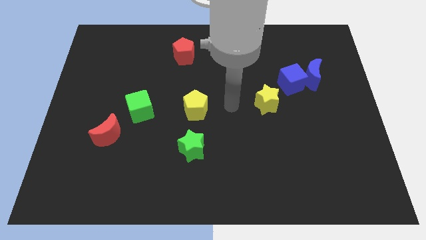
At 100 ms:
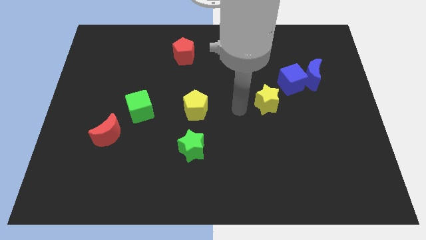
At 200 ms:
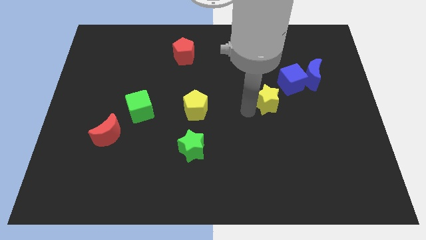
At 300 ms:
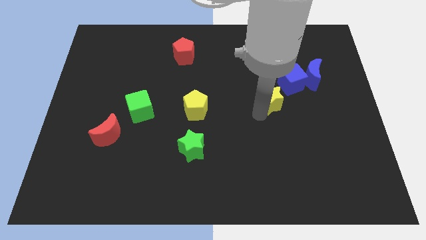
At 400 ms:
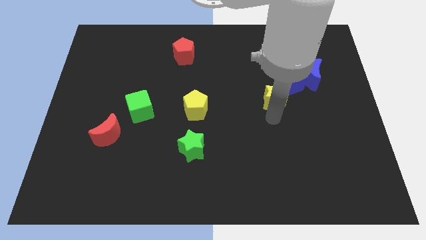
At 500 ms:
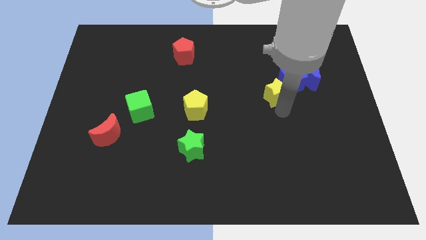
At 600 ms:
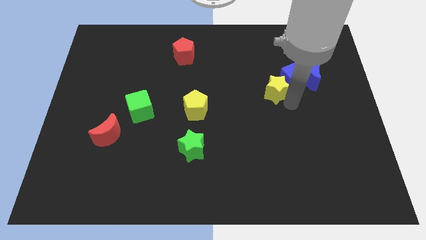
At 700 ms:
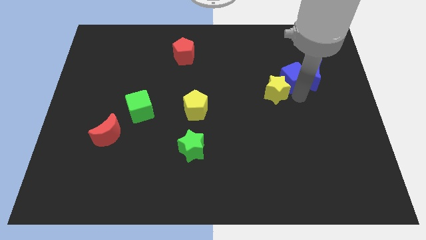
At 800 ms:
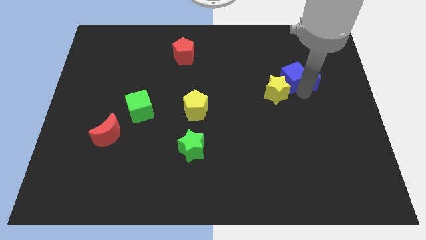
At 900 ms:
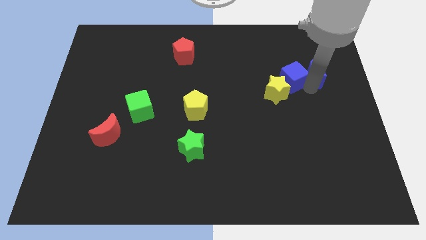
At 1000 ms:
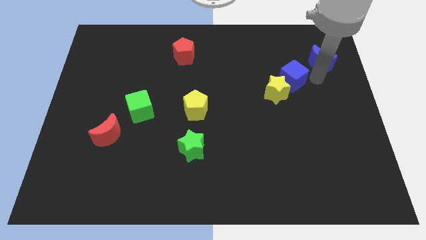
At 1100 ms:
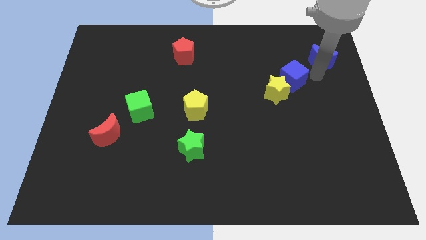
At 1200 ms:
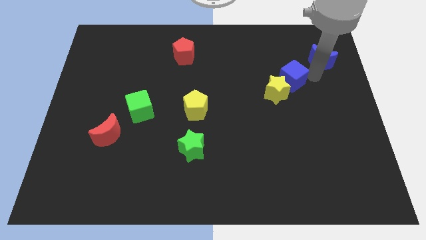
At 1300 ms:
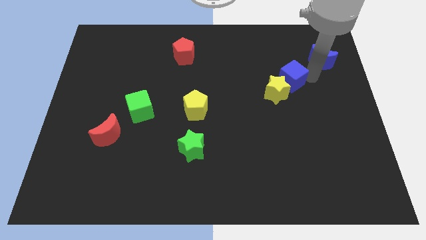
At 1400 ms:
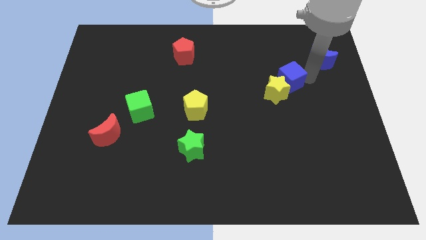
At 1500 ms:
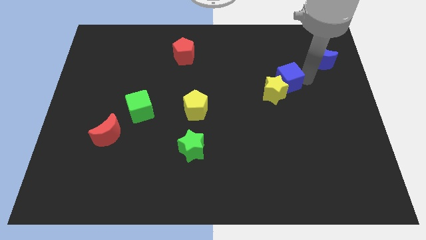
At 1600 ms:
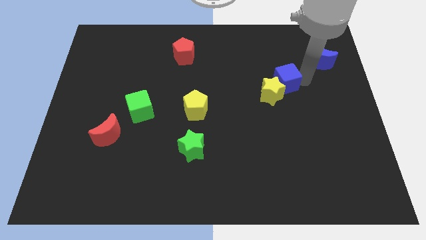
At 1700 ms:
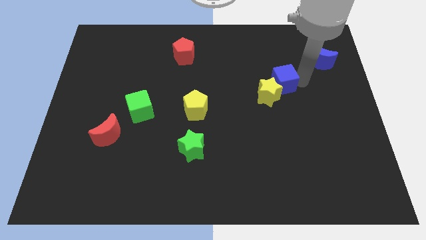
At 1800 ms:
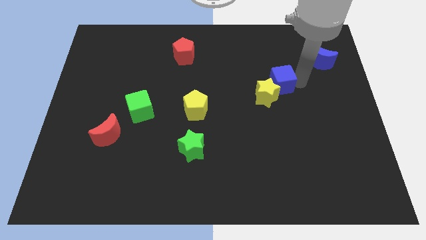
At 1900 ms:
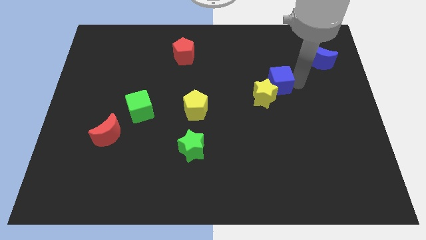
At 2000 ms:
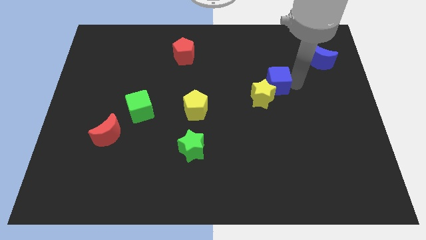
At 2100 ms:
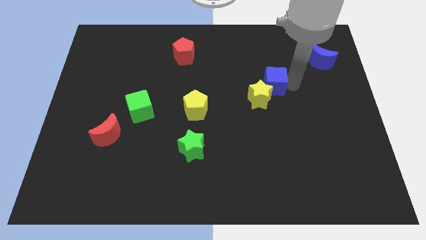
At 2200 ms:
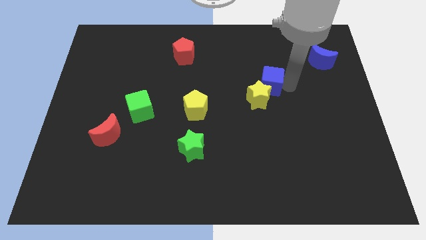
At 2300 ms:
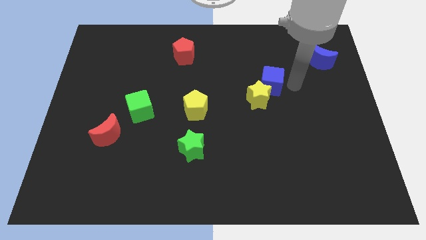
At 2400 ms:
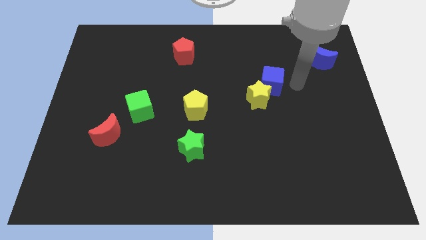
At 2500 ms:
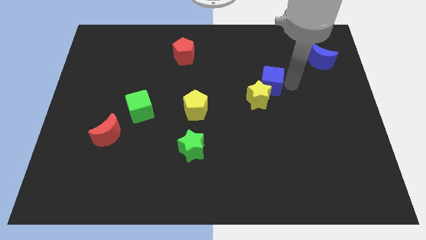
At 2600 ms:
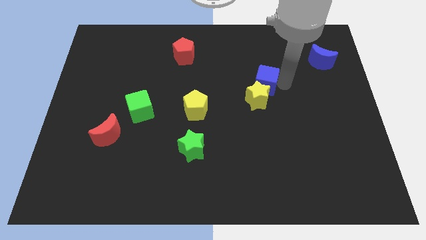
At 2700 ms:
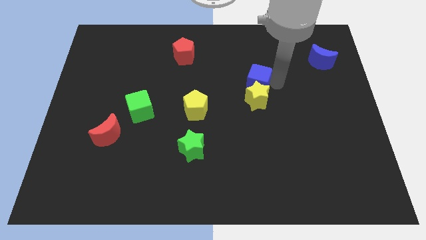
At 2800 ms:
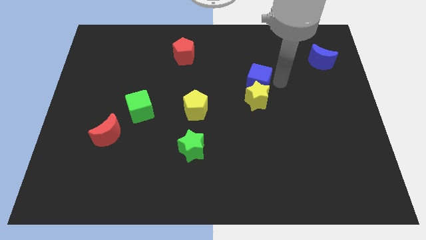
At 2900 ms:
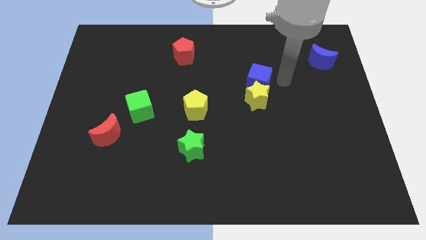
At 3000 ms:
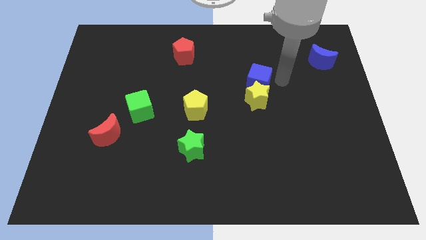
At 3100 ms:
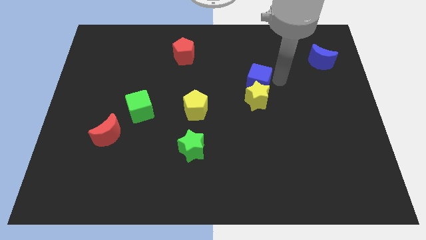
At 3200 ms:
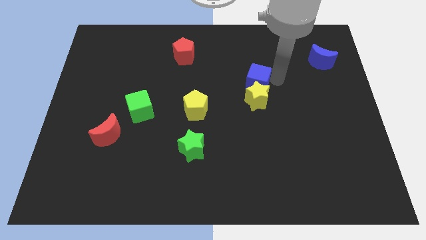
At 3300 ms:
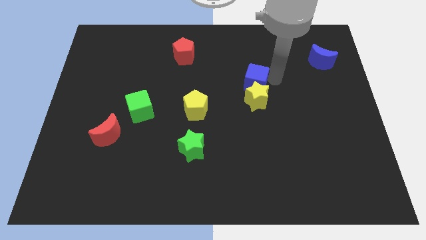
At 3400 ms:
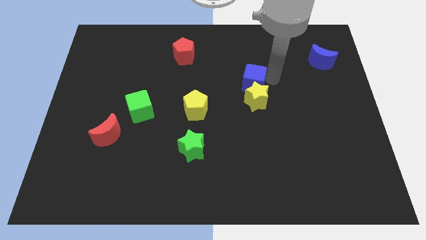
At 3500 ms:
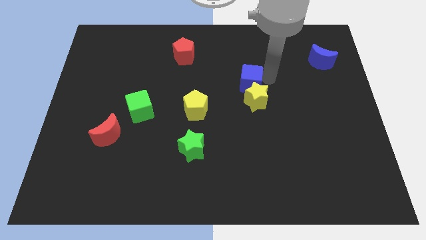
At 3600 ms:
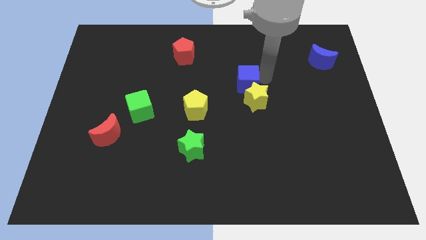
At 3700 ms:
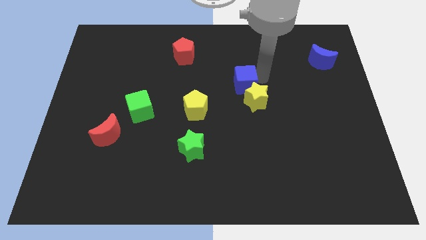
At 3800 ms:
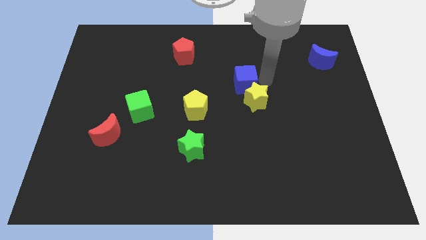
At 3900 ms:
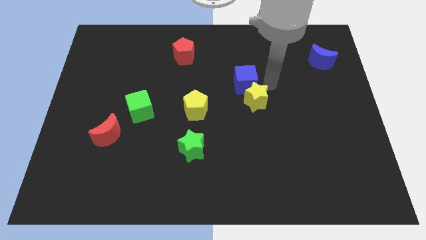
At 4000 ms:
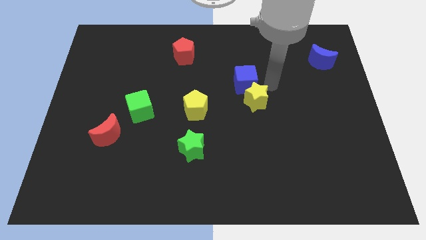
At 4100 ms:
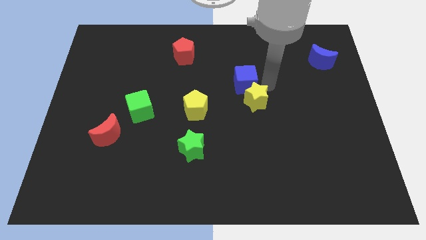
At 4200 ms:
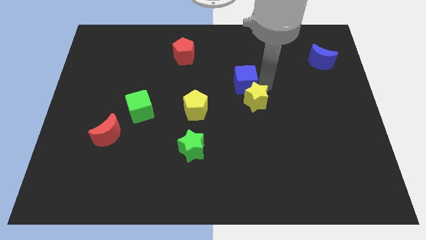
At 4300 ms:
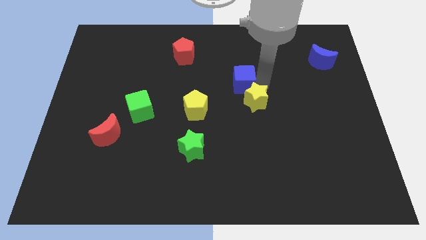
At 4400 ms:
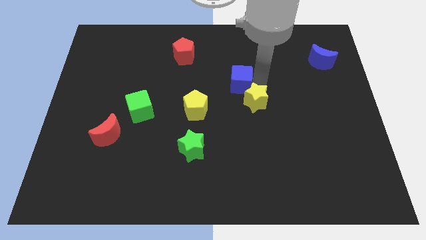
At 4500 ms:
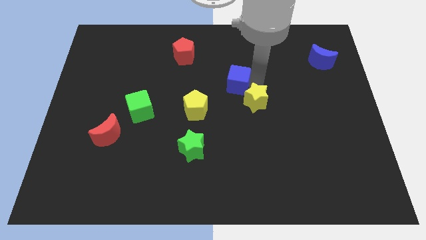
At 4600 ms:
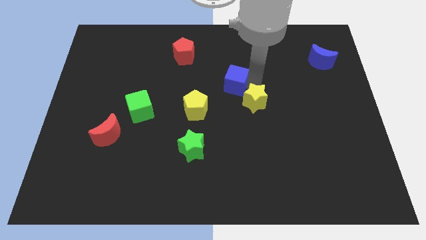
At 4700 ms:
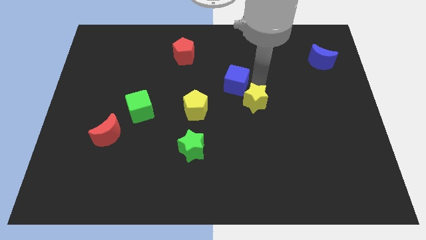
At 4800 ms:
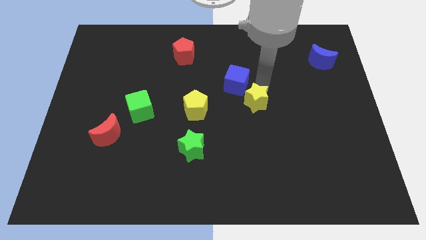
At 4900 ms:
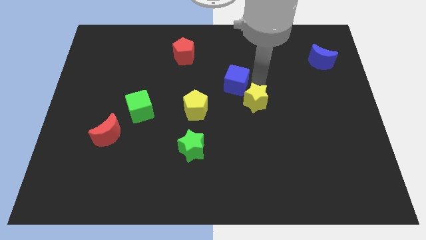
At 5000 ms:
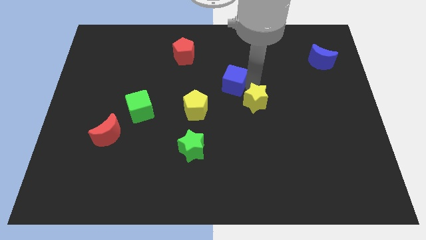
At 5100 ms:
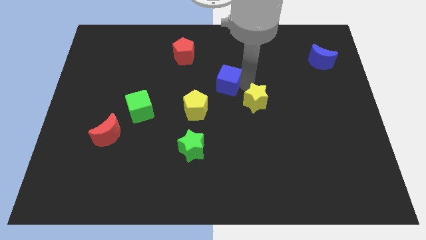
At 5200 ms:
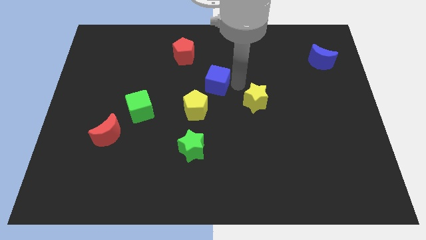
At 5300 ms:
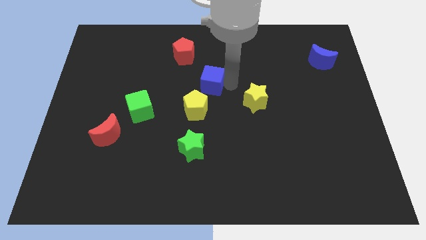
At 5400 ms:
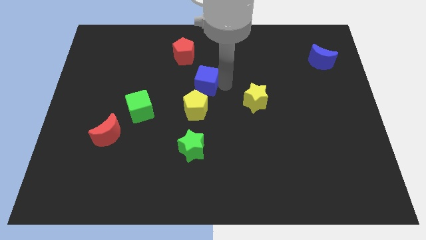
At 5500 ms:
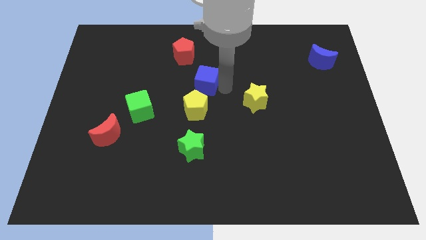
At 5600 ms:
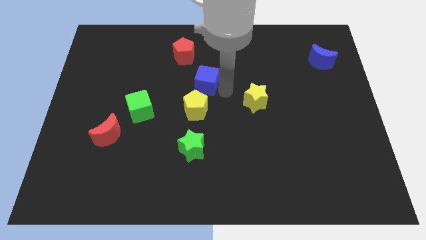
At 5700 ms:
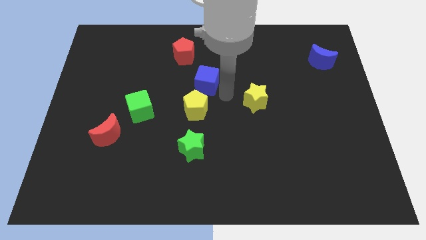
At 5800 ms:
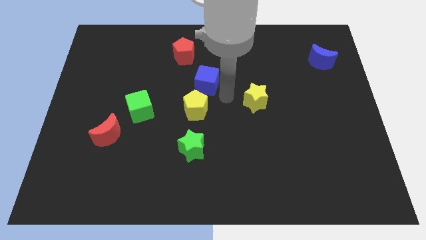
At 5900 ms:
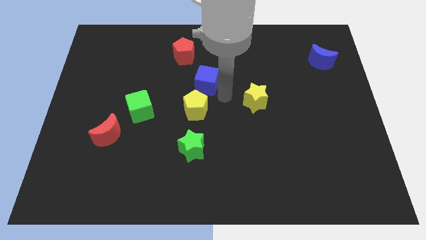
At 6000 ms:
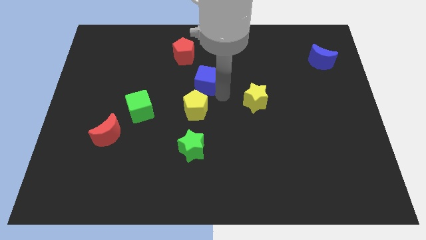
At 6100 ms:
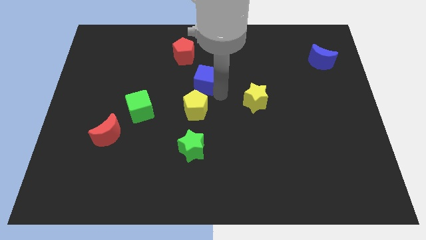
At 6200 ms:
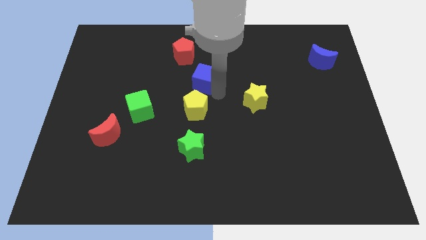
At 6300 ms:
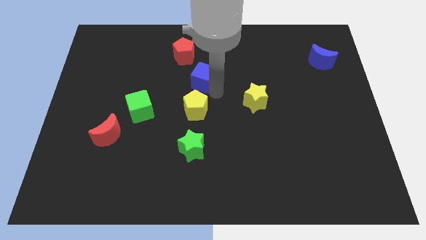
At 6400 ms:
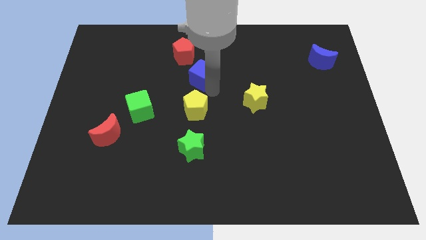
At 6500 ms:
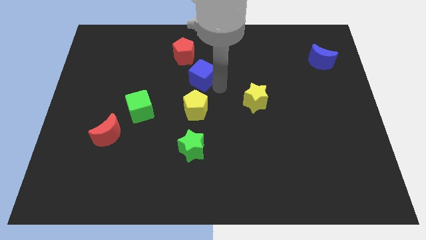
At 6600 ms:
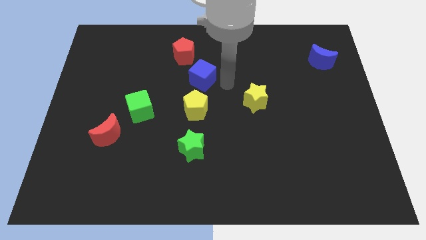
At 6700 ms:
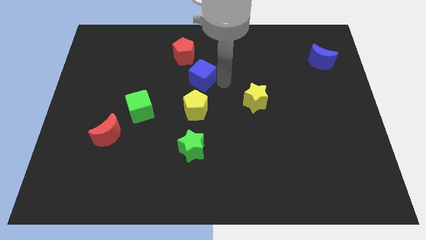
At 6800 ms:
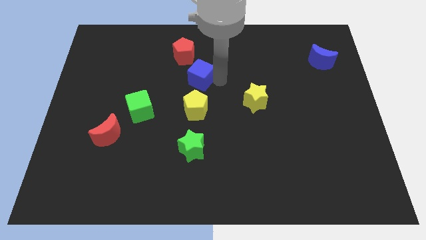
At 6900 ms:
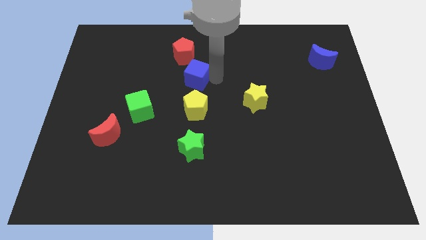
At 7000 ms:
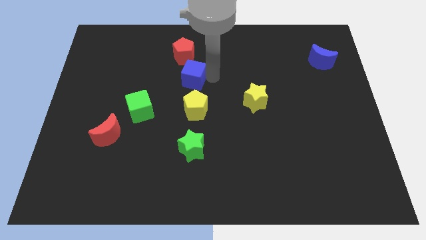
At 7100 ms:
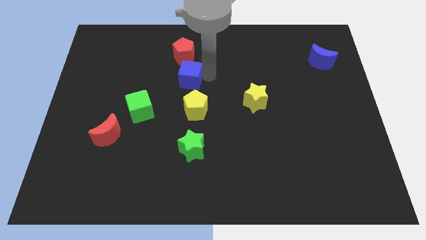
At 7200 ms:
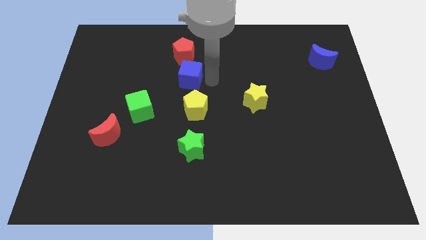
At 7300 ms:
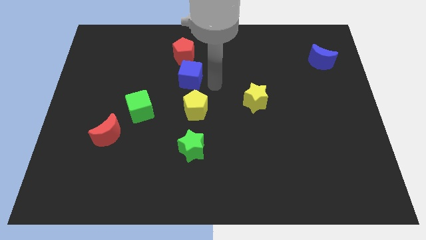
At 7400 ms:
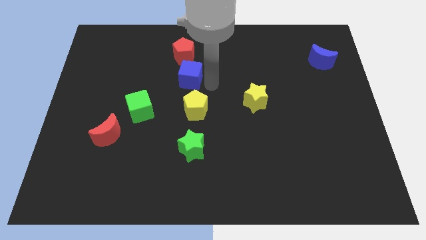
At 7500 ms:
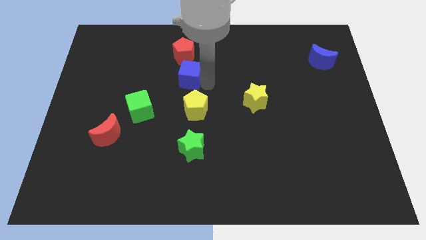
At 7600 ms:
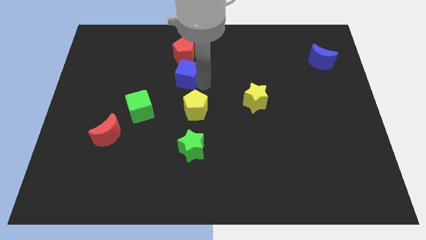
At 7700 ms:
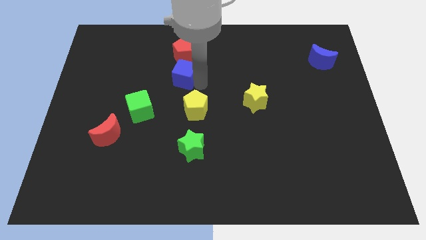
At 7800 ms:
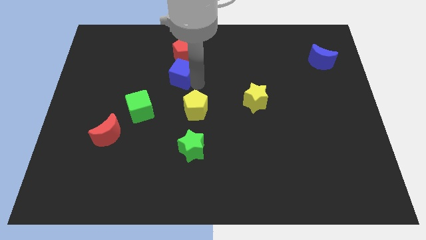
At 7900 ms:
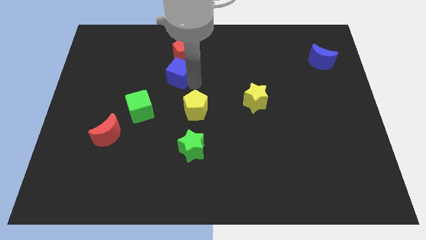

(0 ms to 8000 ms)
put the blue cube to the bottom left of the red pentagon
